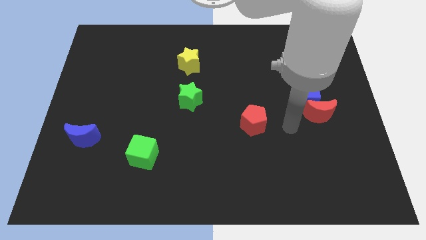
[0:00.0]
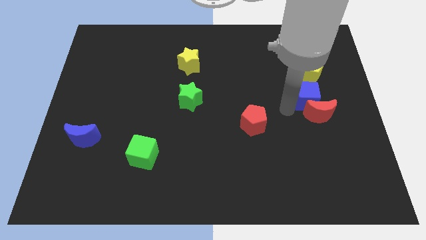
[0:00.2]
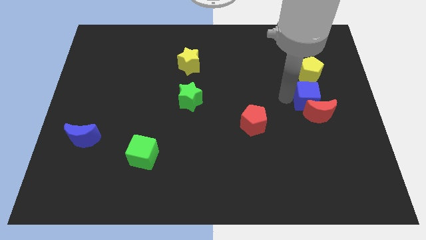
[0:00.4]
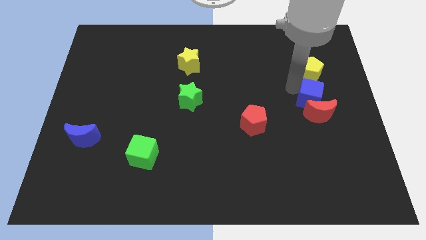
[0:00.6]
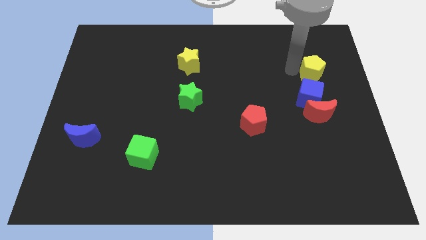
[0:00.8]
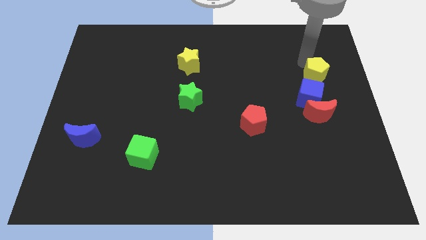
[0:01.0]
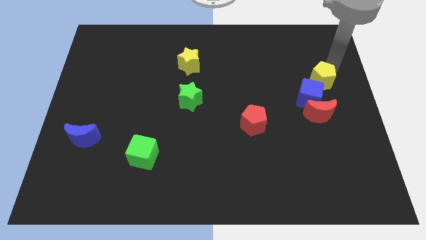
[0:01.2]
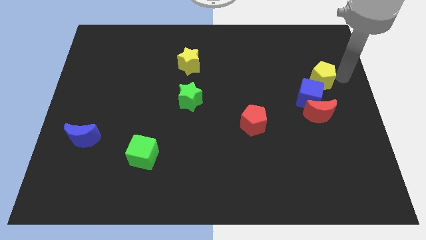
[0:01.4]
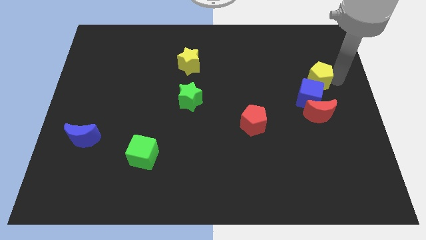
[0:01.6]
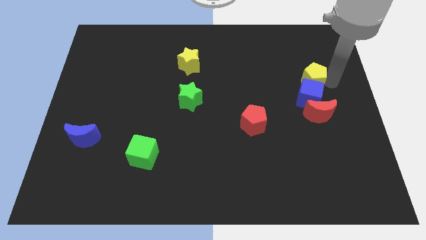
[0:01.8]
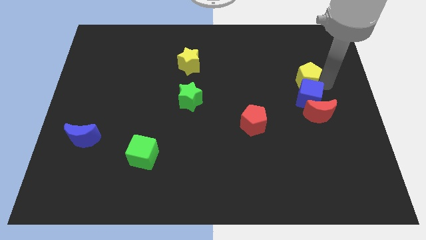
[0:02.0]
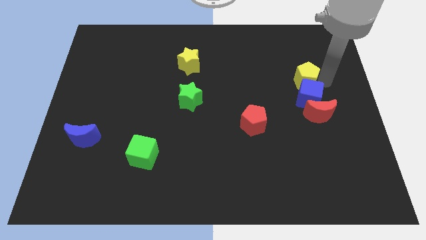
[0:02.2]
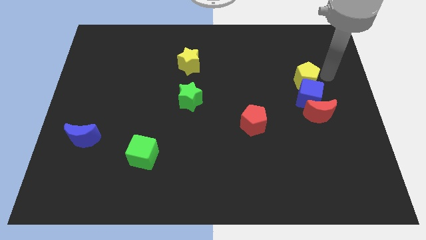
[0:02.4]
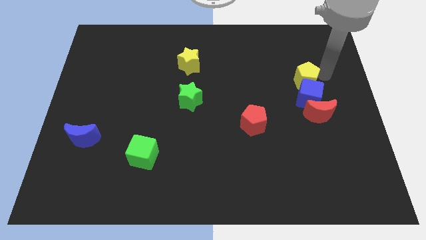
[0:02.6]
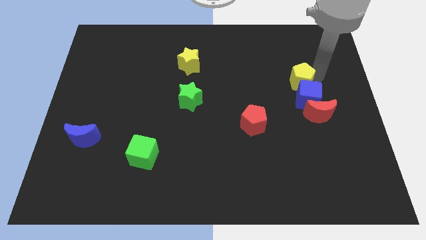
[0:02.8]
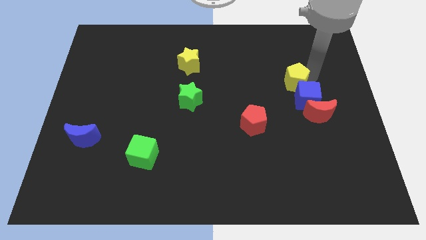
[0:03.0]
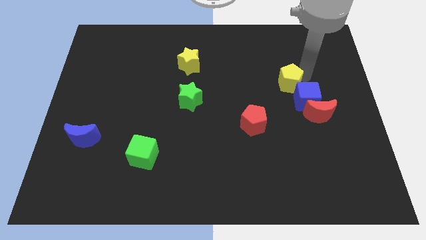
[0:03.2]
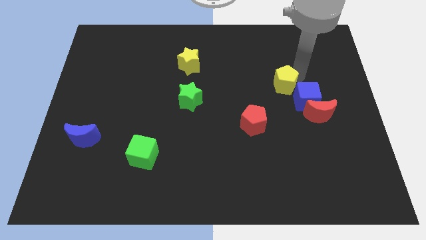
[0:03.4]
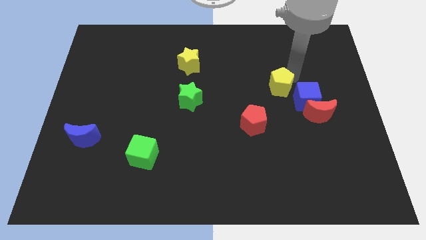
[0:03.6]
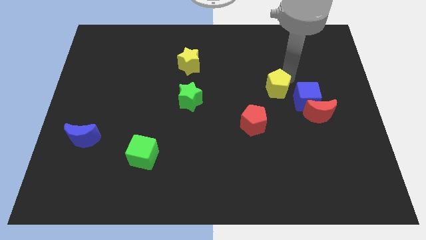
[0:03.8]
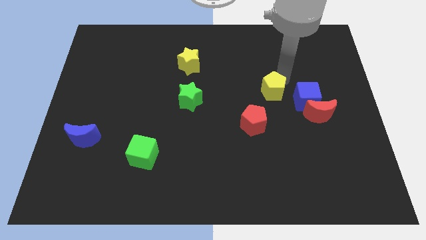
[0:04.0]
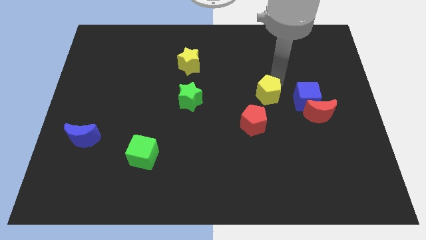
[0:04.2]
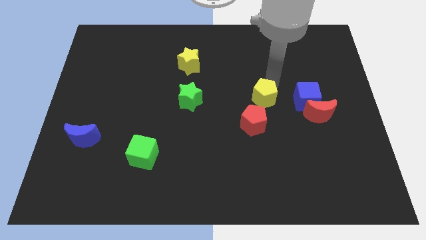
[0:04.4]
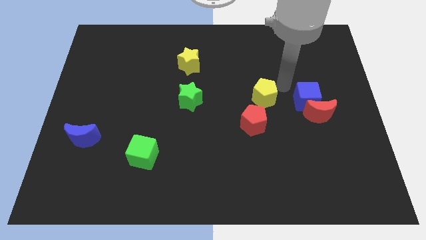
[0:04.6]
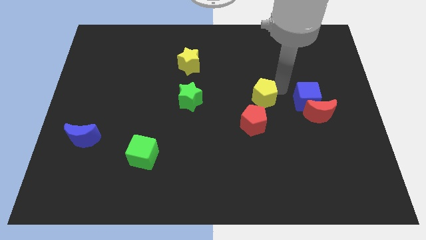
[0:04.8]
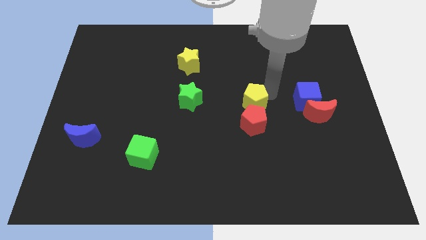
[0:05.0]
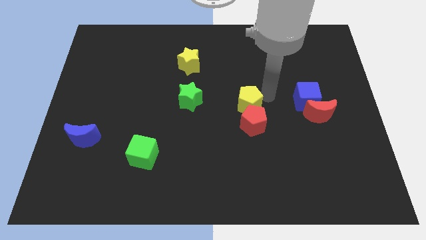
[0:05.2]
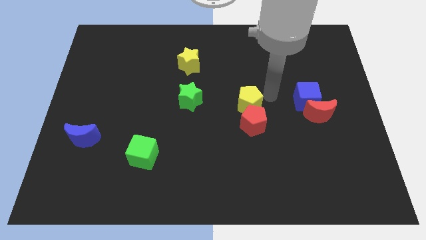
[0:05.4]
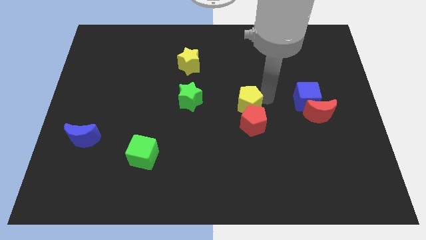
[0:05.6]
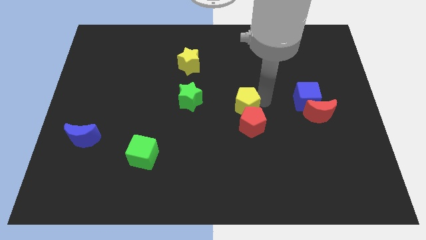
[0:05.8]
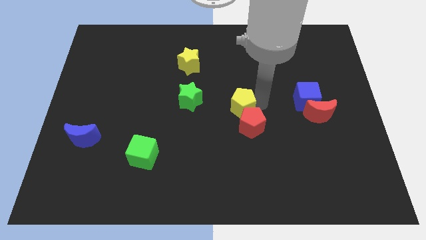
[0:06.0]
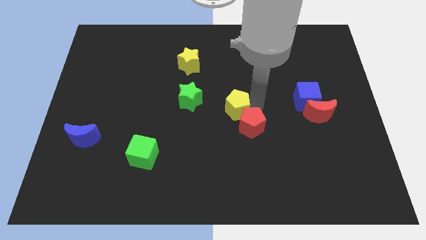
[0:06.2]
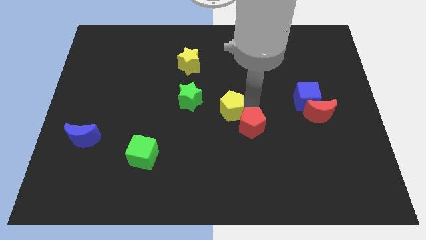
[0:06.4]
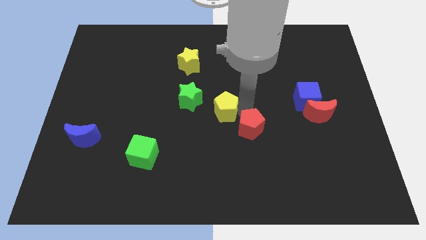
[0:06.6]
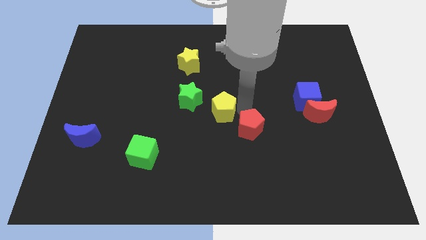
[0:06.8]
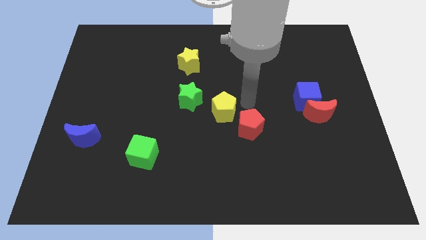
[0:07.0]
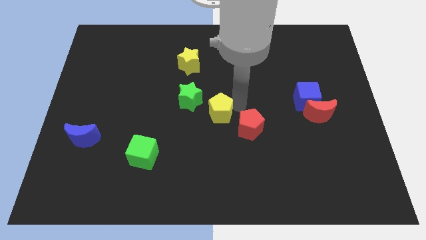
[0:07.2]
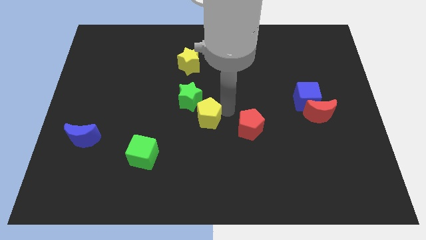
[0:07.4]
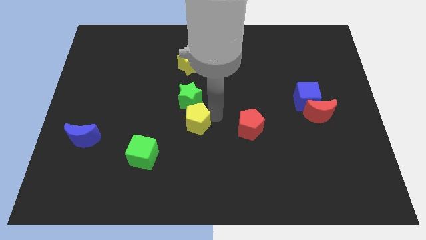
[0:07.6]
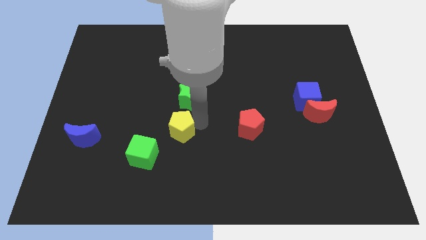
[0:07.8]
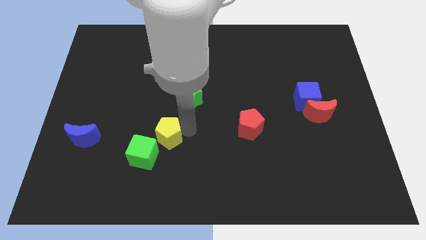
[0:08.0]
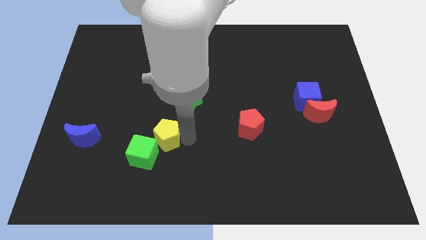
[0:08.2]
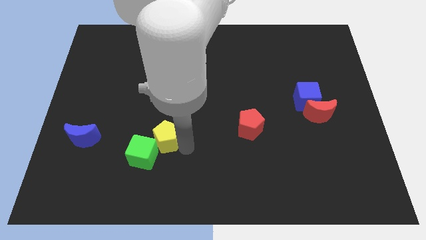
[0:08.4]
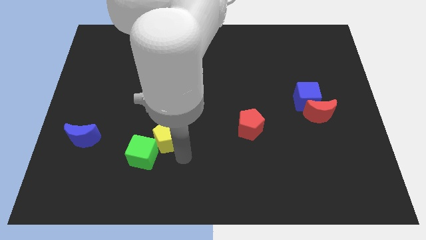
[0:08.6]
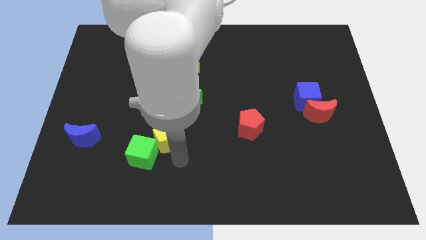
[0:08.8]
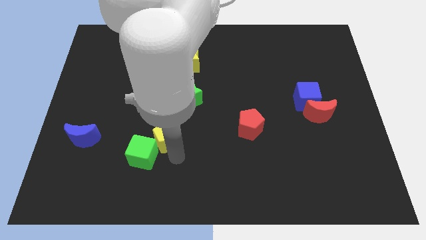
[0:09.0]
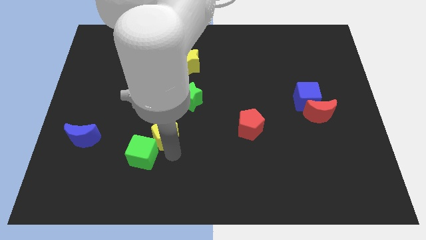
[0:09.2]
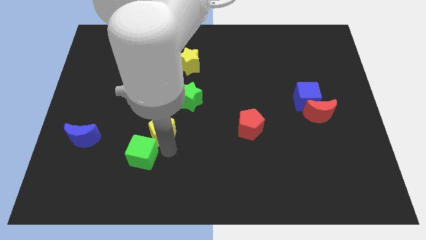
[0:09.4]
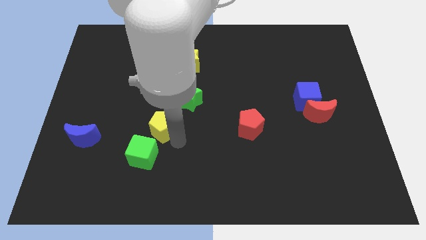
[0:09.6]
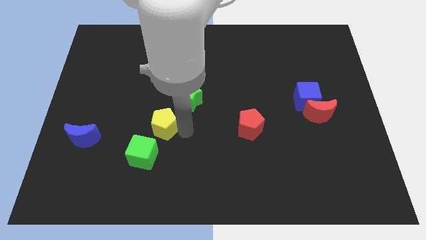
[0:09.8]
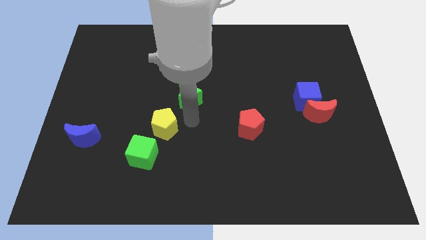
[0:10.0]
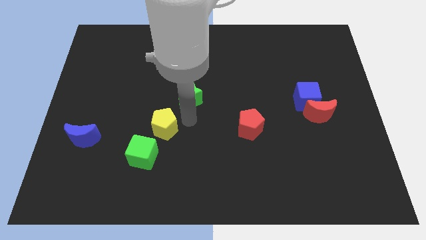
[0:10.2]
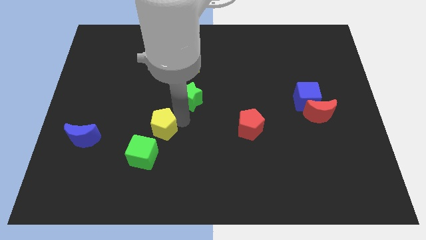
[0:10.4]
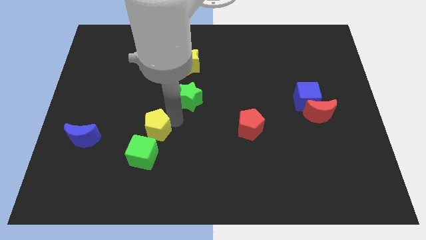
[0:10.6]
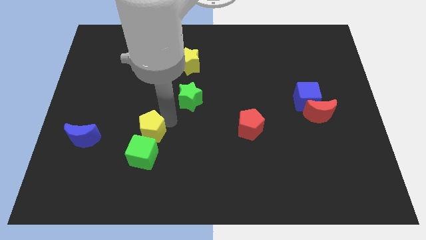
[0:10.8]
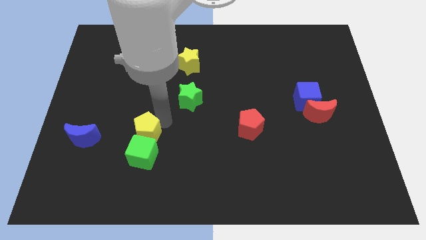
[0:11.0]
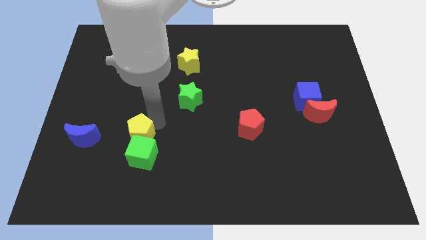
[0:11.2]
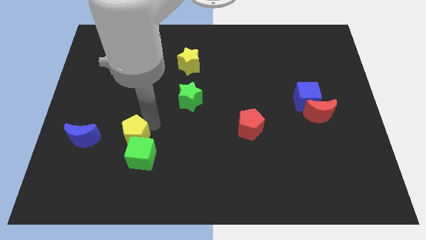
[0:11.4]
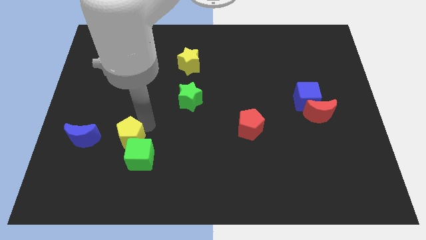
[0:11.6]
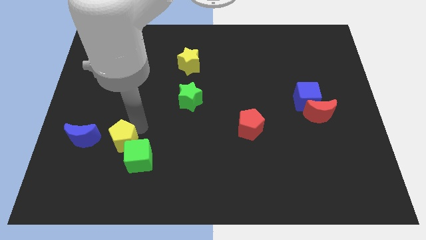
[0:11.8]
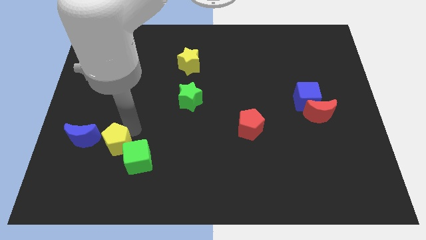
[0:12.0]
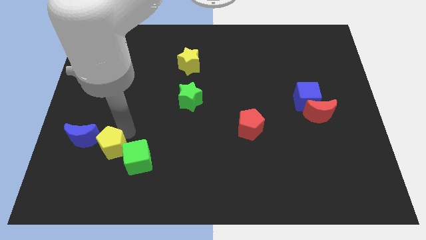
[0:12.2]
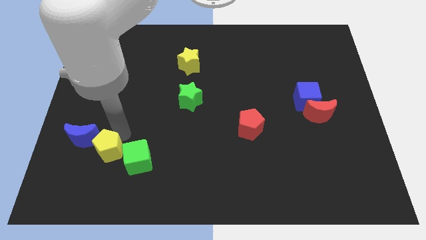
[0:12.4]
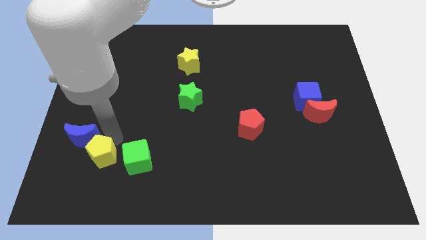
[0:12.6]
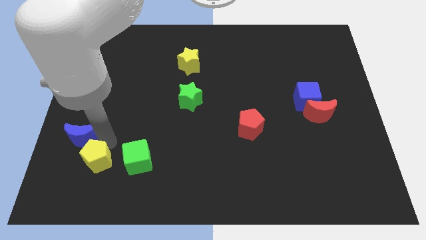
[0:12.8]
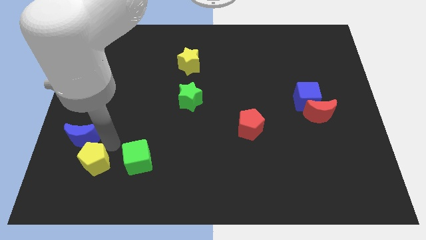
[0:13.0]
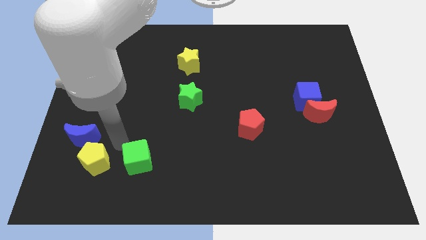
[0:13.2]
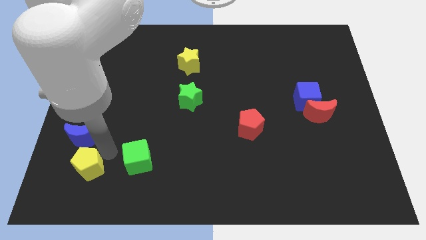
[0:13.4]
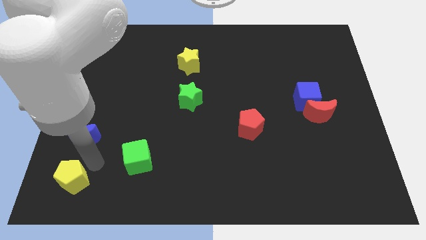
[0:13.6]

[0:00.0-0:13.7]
slide the yellow pentagon to the lower left corner
